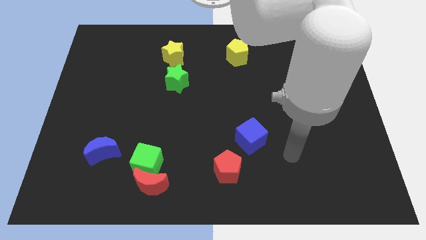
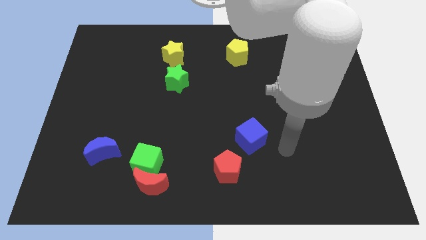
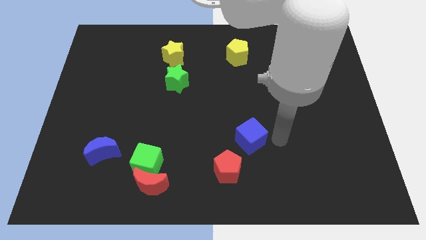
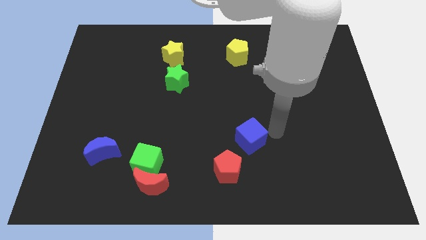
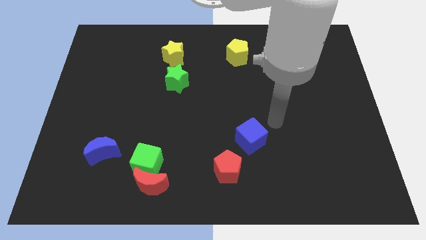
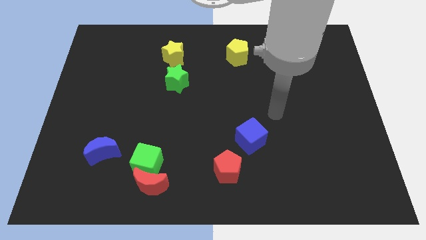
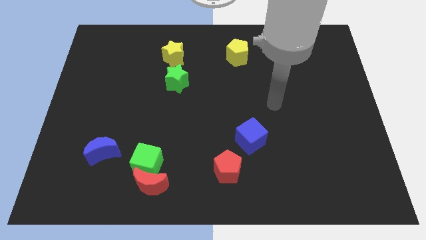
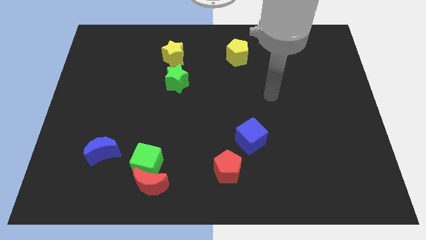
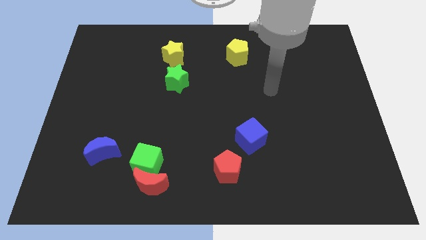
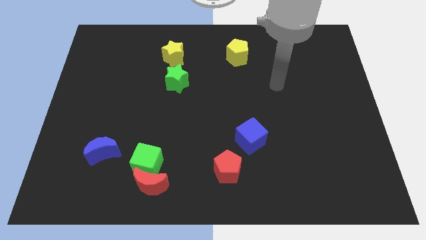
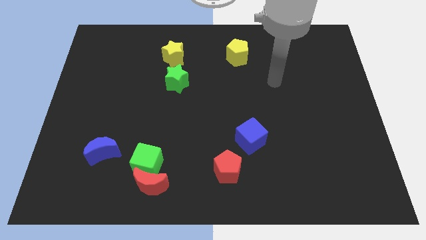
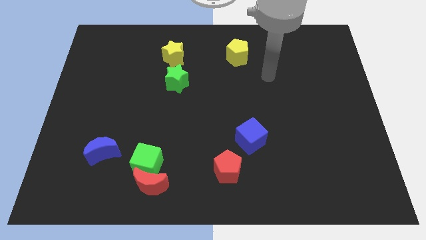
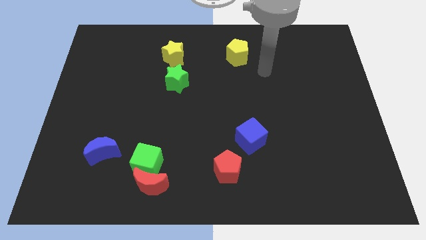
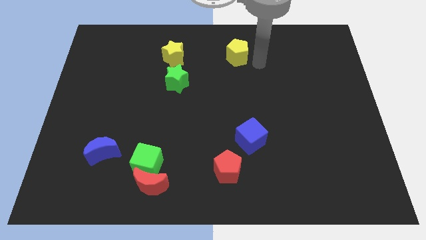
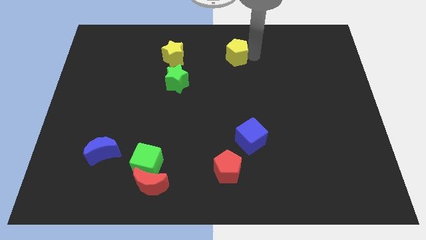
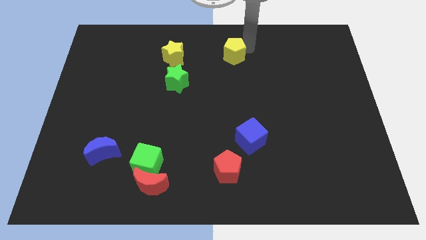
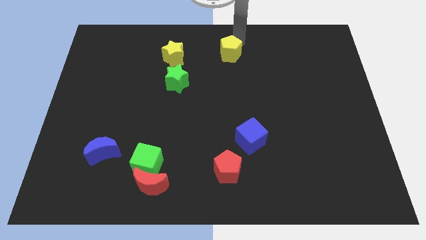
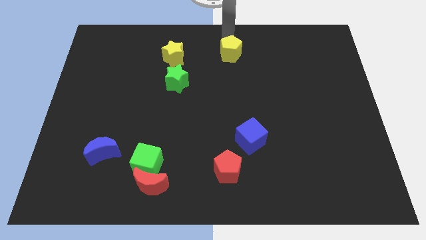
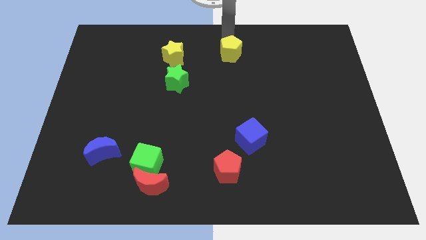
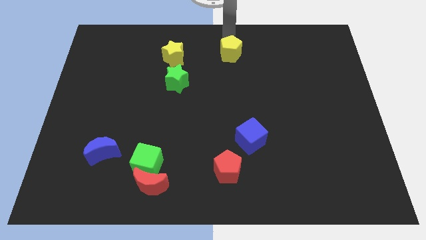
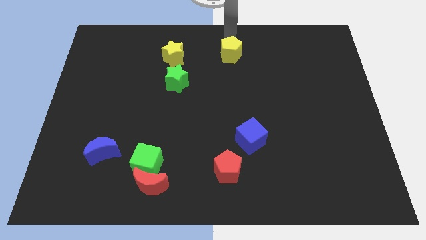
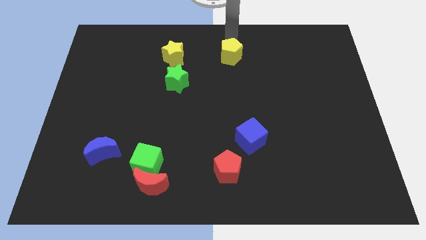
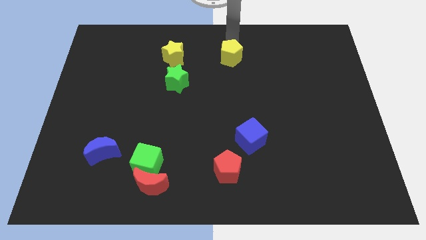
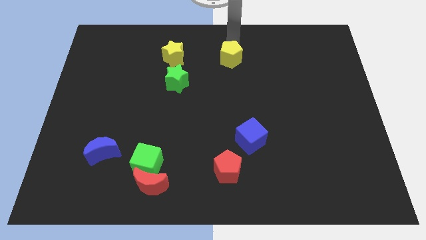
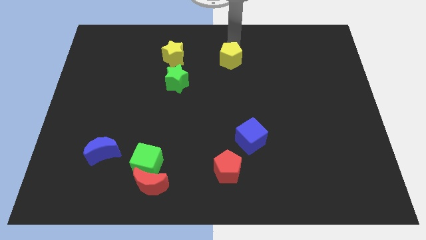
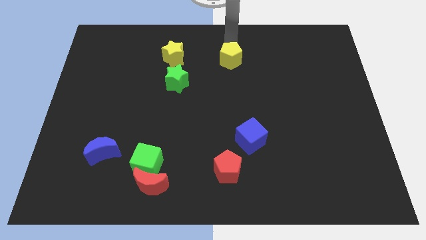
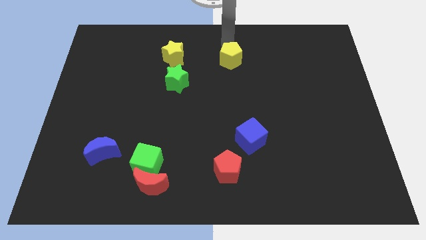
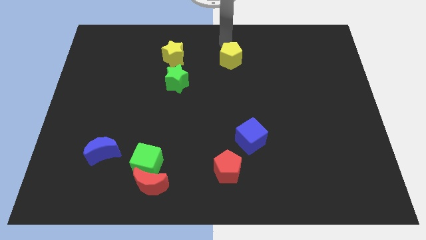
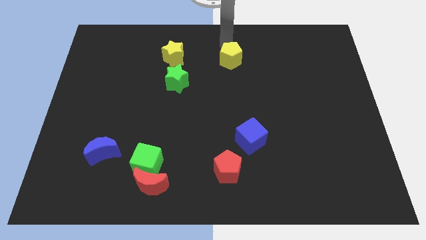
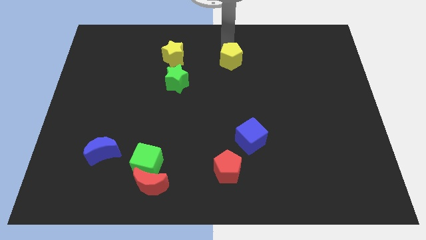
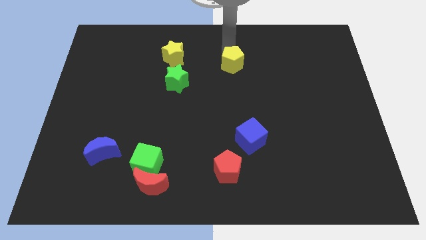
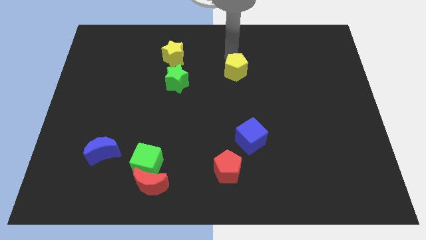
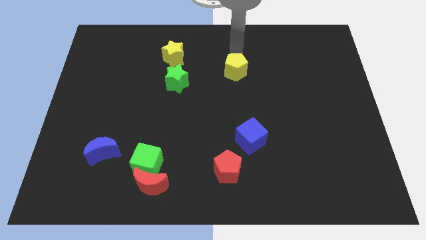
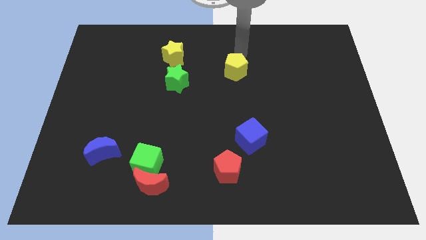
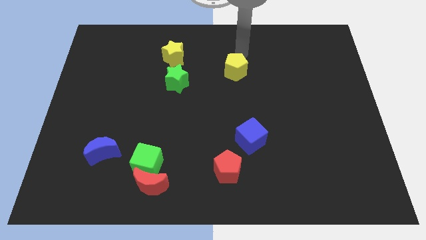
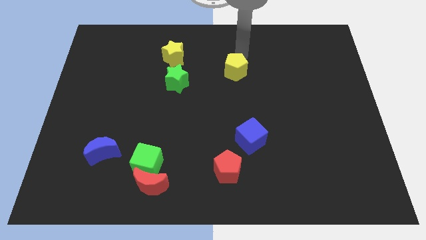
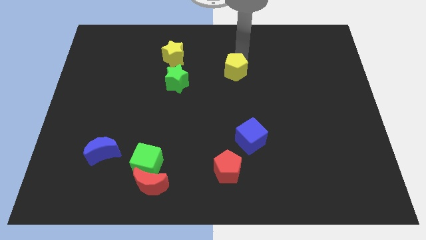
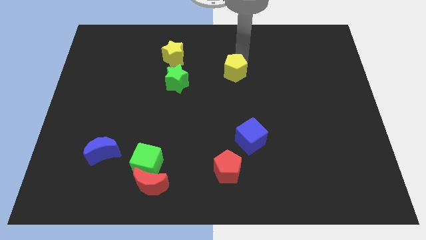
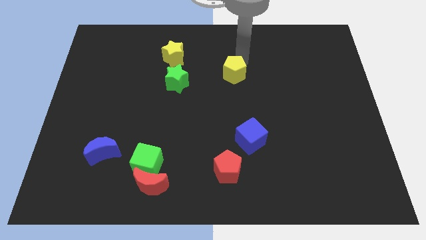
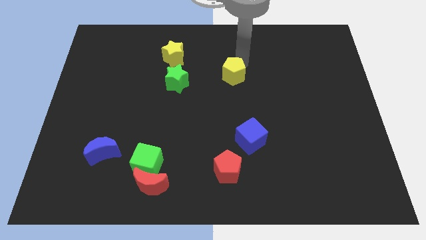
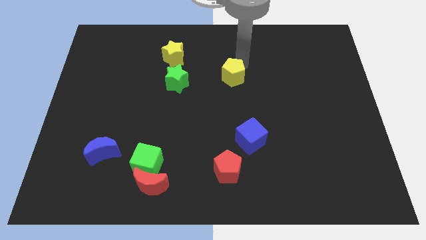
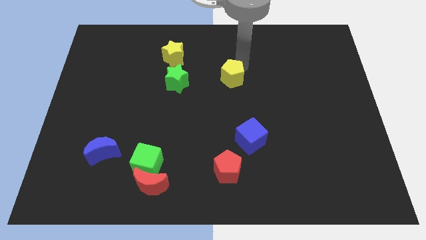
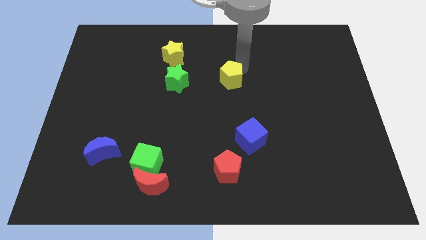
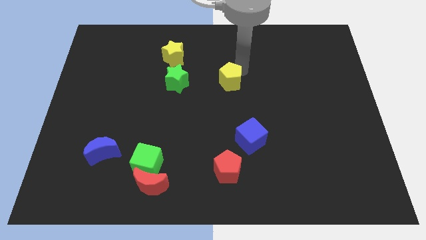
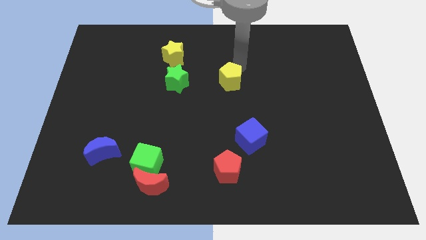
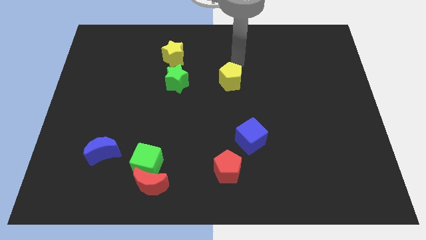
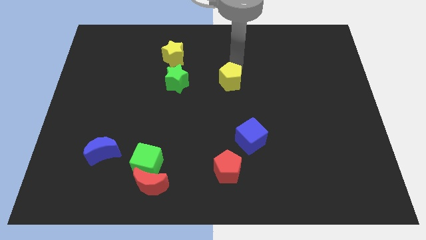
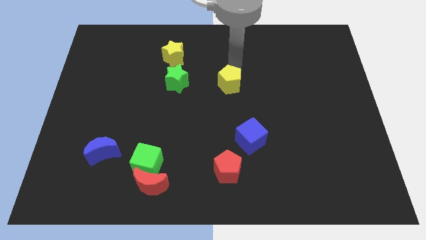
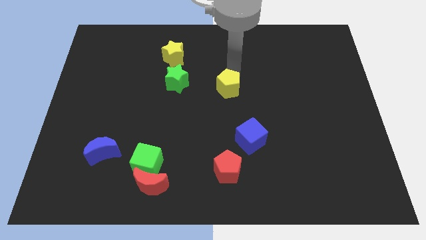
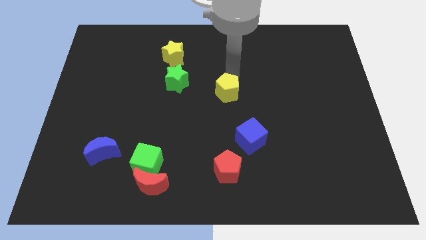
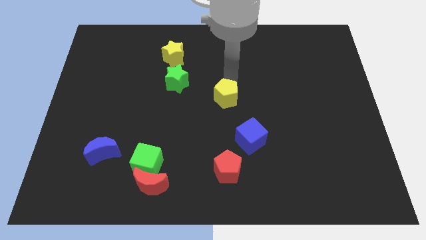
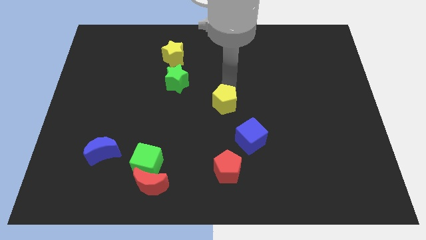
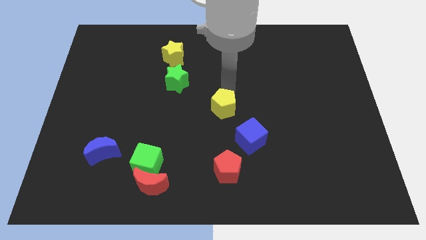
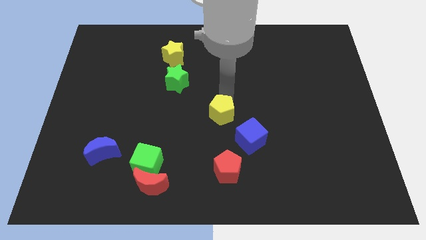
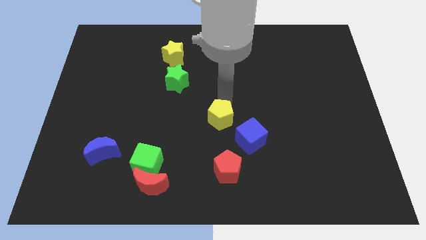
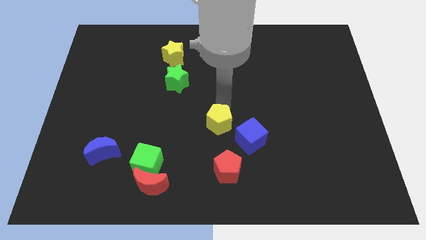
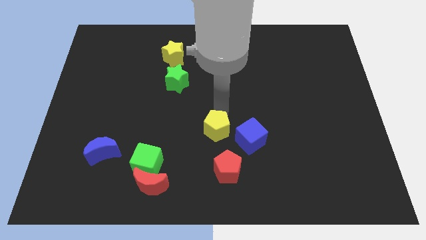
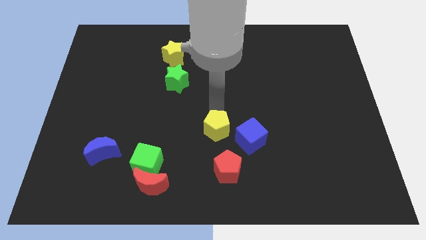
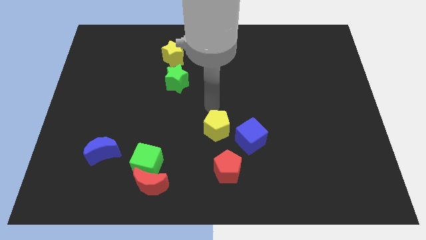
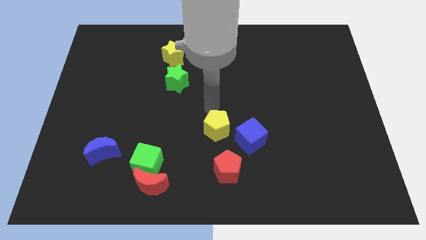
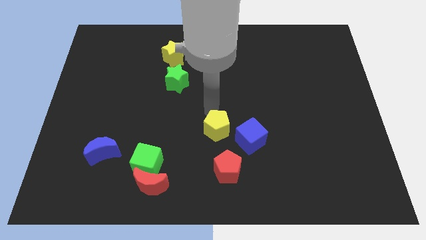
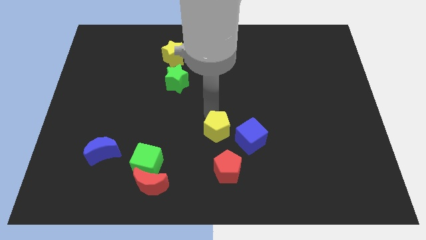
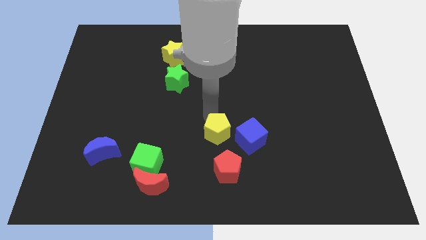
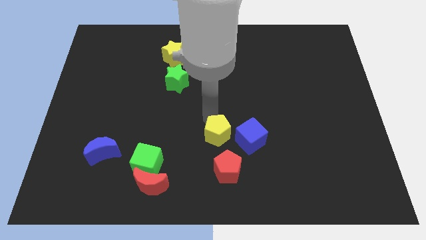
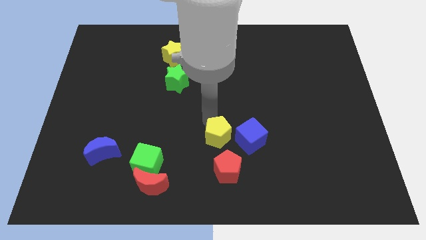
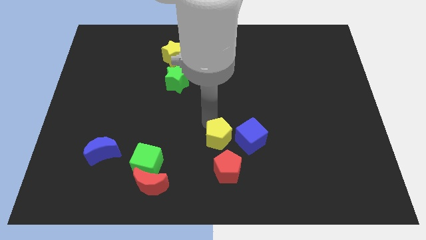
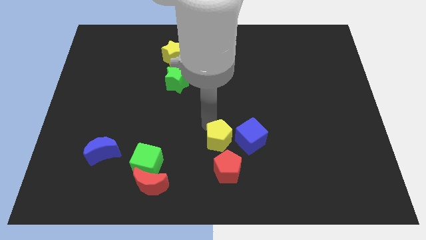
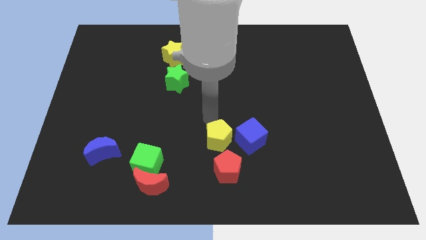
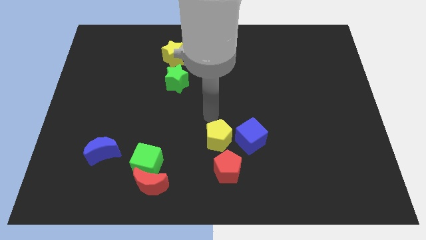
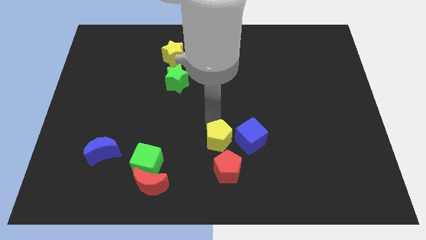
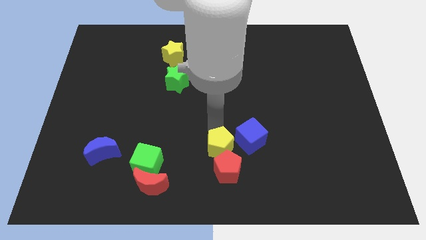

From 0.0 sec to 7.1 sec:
put the yellow pentagon to the red pentagon
